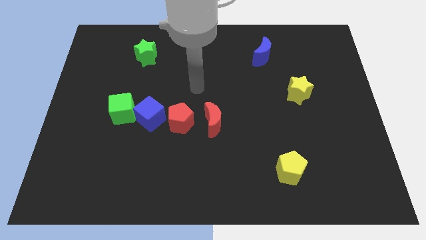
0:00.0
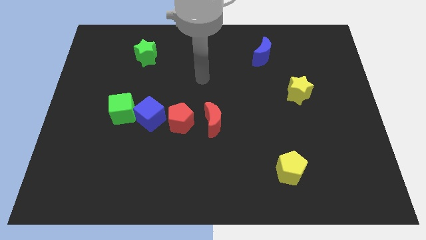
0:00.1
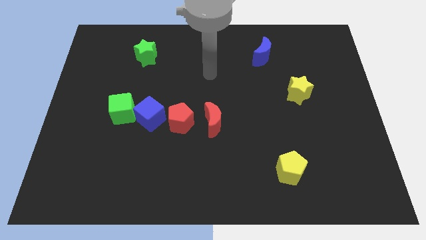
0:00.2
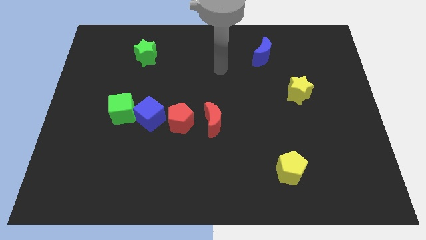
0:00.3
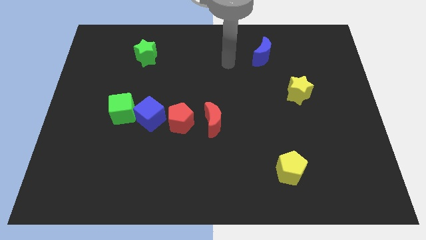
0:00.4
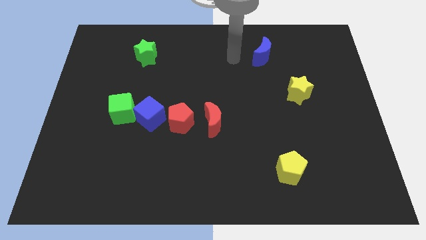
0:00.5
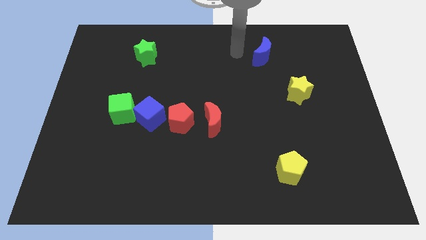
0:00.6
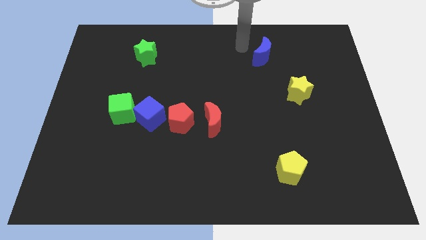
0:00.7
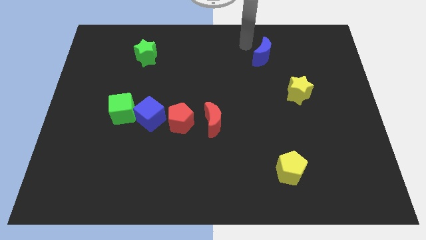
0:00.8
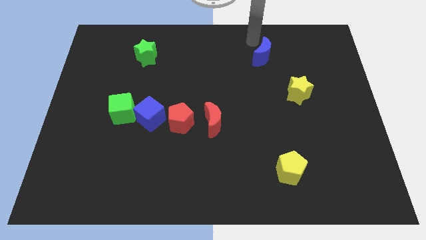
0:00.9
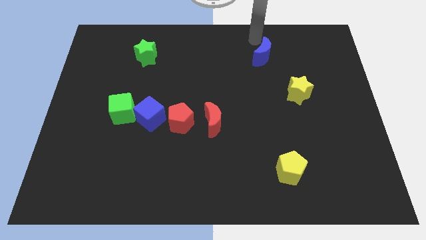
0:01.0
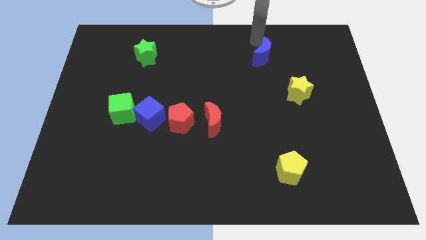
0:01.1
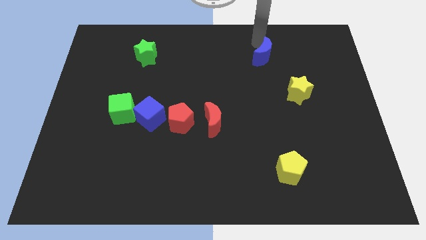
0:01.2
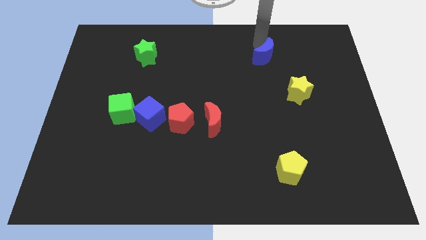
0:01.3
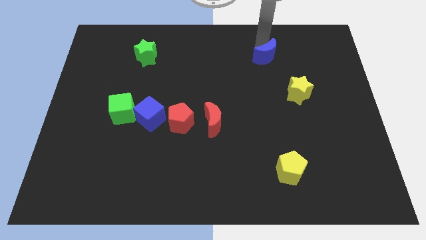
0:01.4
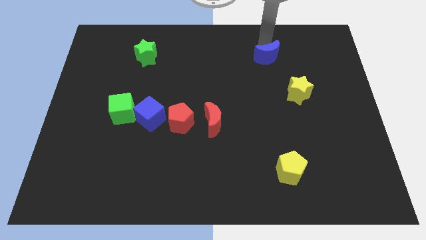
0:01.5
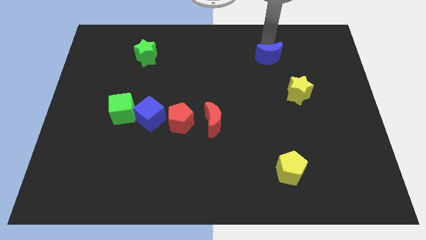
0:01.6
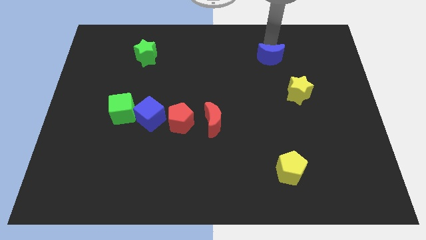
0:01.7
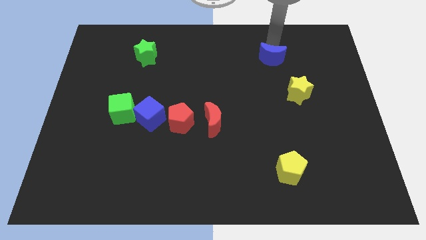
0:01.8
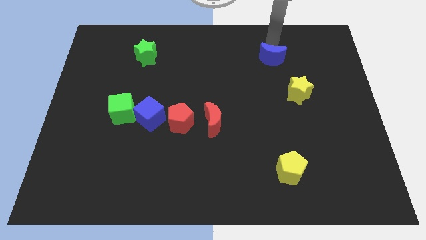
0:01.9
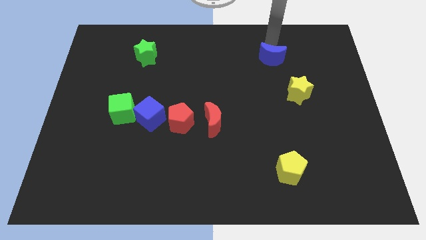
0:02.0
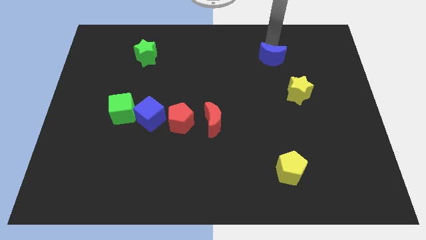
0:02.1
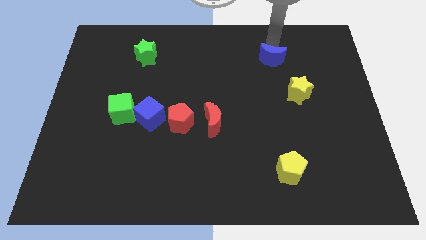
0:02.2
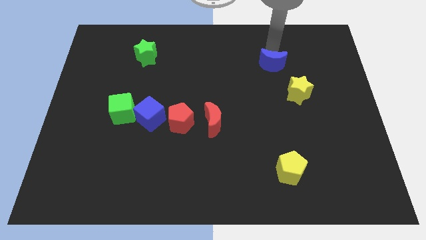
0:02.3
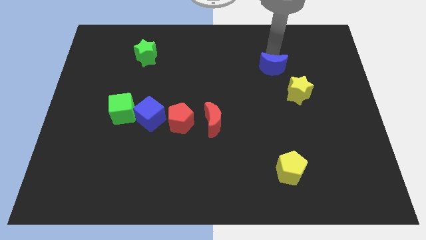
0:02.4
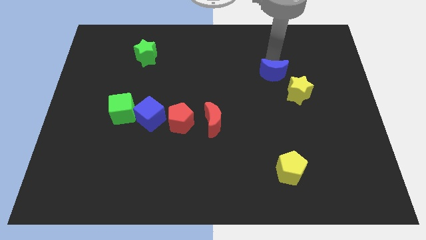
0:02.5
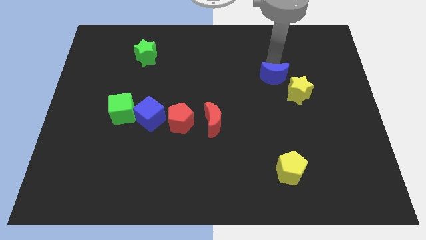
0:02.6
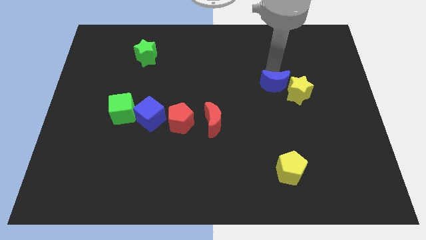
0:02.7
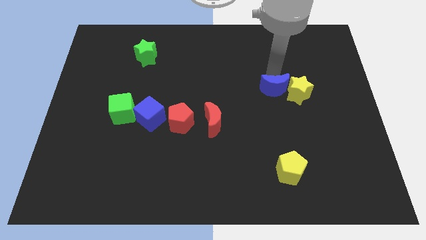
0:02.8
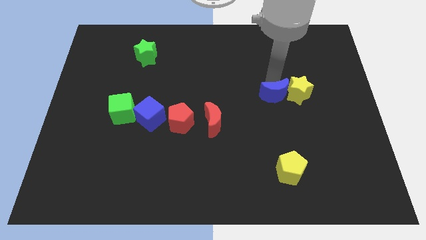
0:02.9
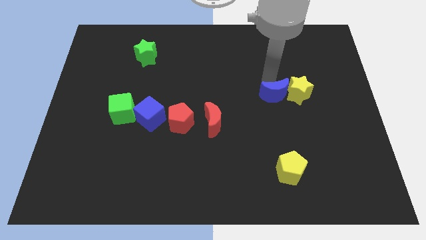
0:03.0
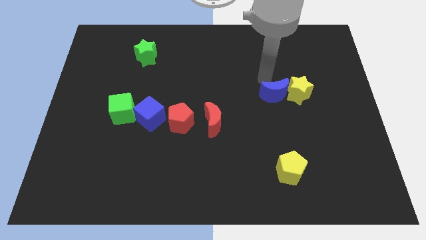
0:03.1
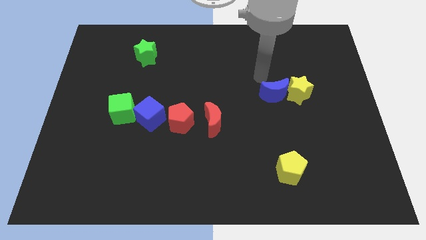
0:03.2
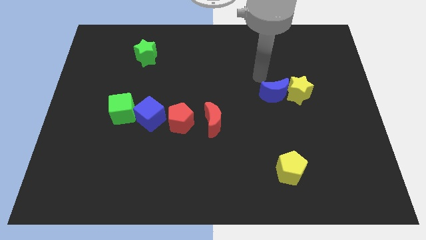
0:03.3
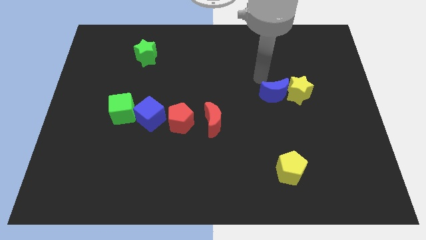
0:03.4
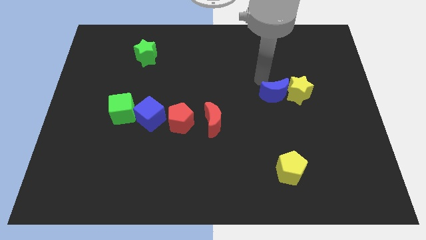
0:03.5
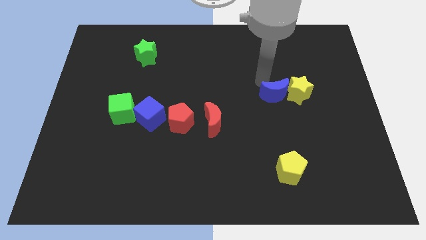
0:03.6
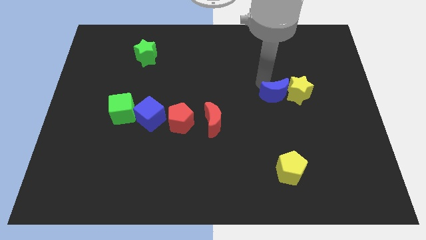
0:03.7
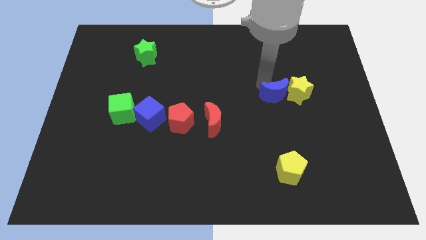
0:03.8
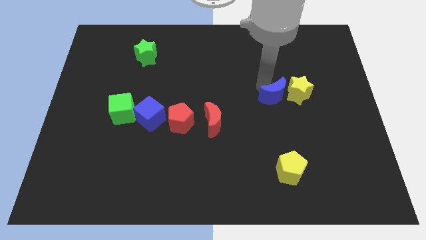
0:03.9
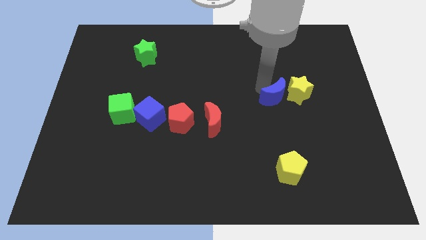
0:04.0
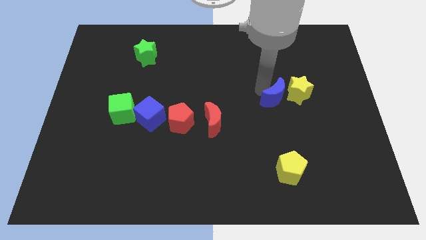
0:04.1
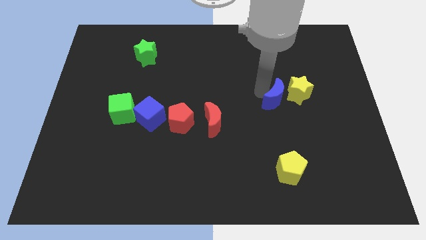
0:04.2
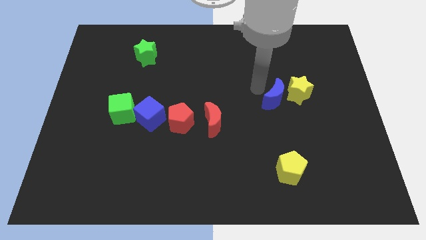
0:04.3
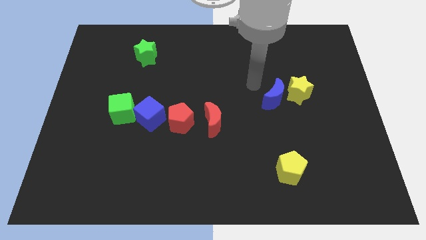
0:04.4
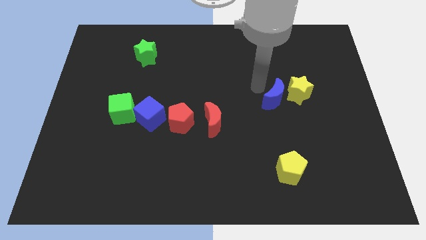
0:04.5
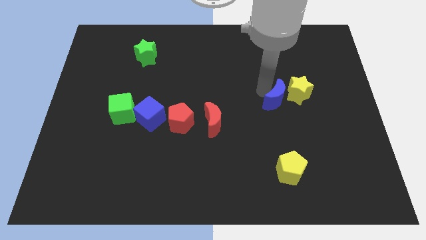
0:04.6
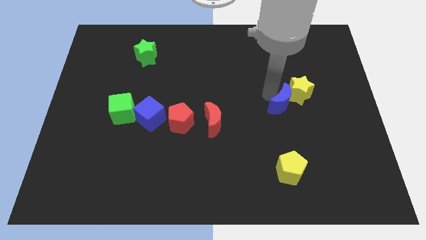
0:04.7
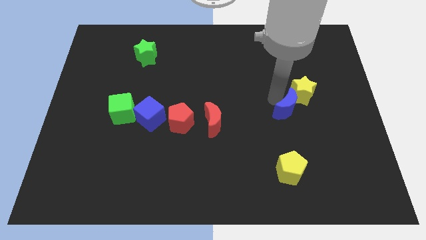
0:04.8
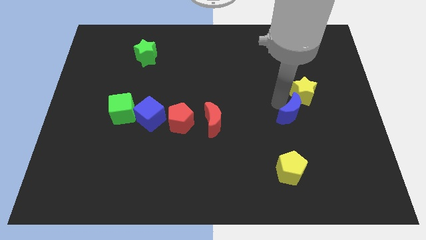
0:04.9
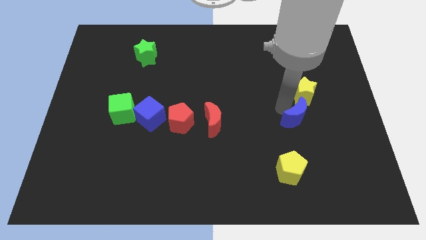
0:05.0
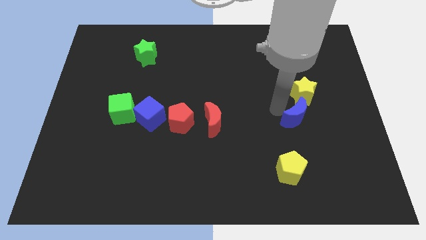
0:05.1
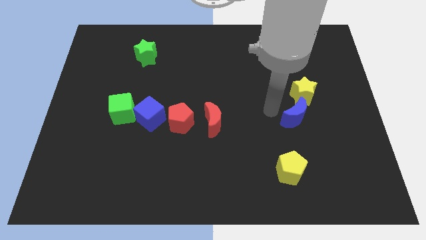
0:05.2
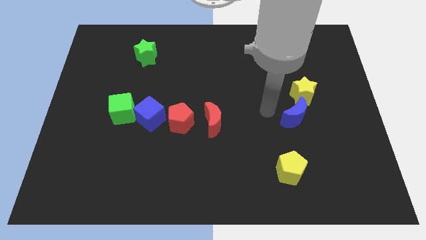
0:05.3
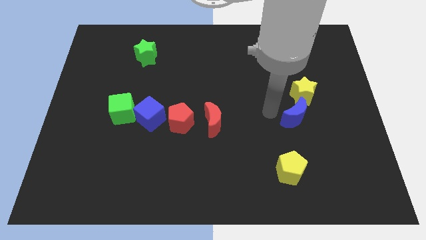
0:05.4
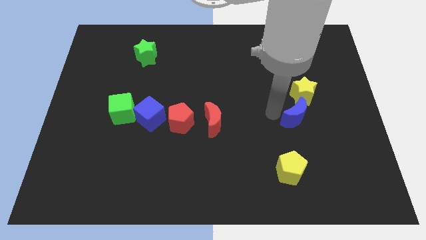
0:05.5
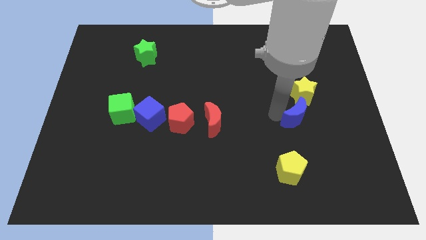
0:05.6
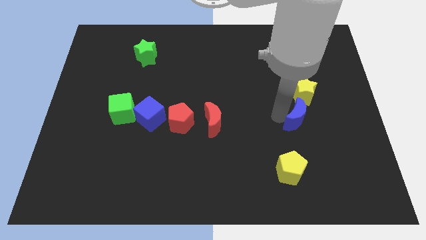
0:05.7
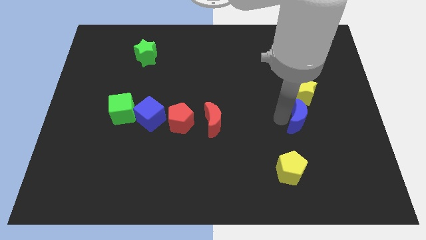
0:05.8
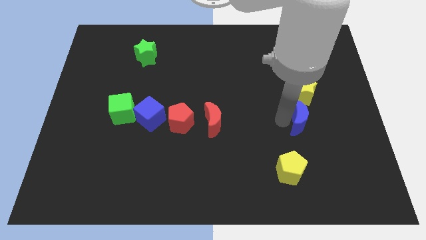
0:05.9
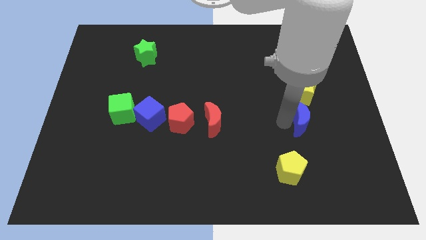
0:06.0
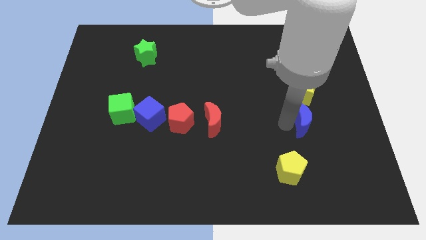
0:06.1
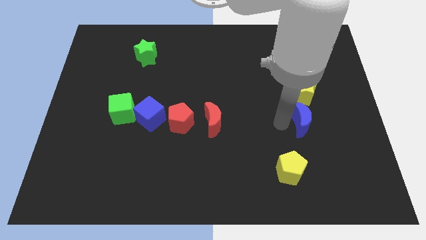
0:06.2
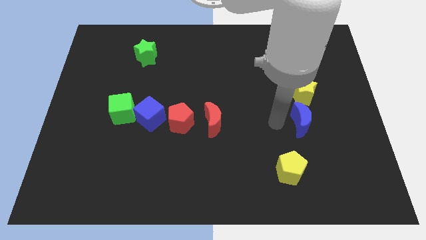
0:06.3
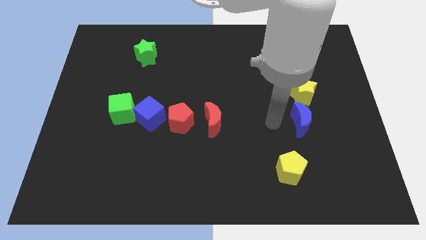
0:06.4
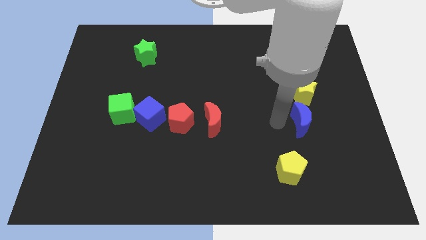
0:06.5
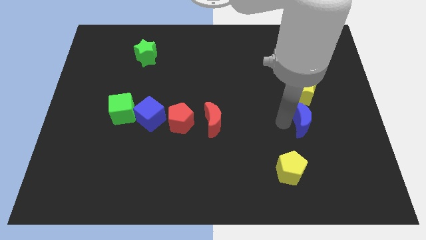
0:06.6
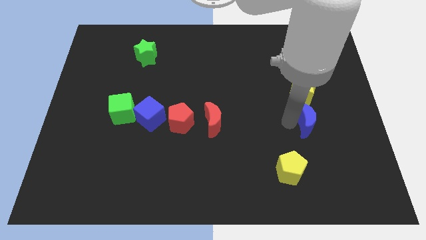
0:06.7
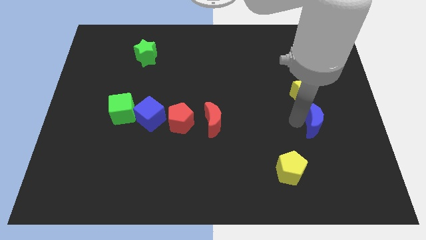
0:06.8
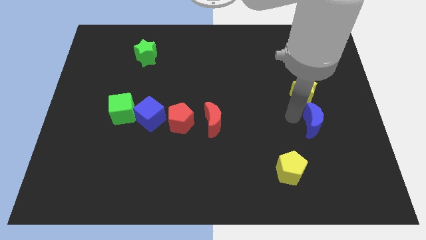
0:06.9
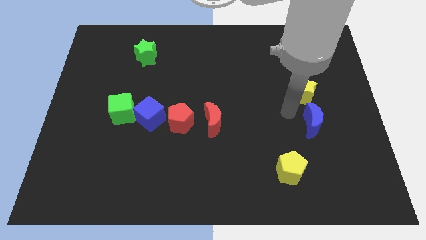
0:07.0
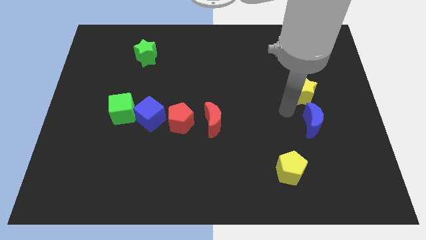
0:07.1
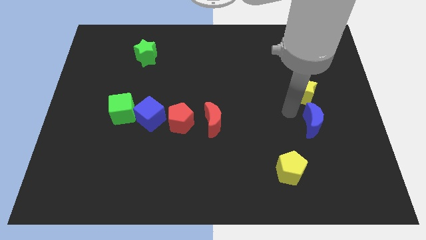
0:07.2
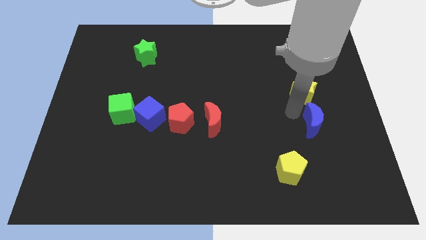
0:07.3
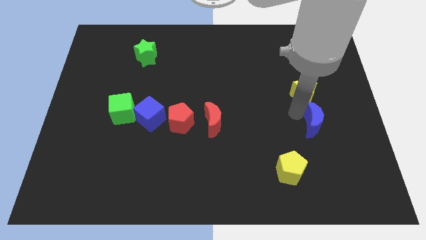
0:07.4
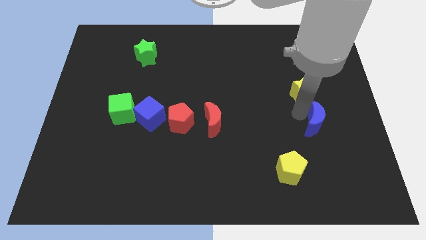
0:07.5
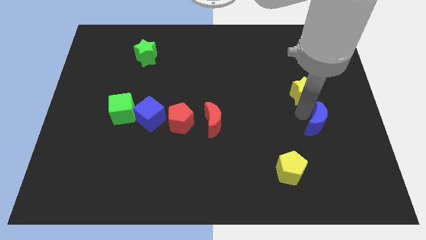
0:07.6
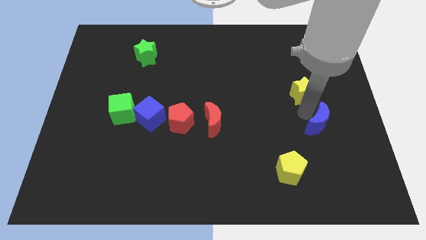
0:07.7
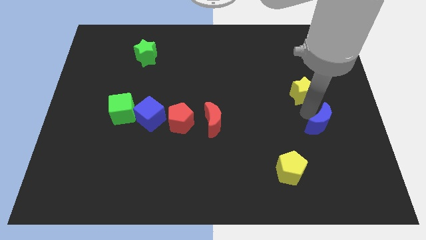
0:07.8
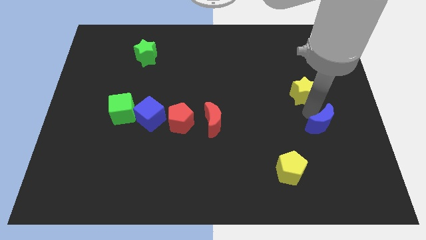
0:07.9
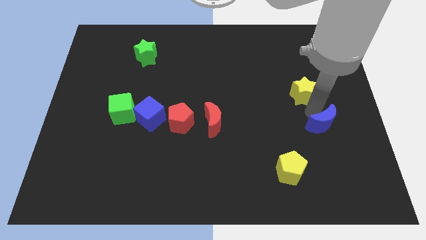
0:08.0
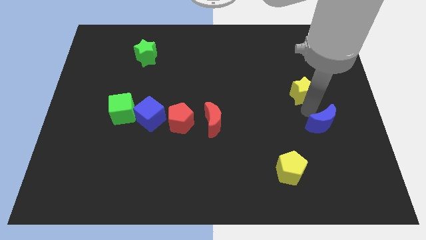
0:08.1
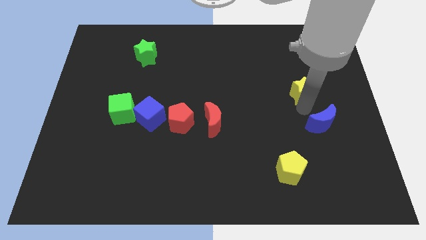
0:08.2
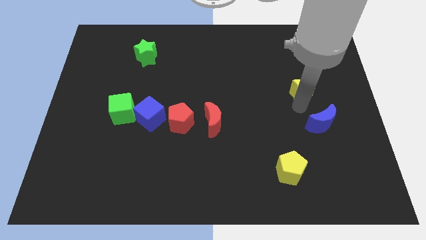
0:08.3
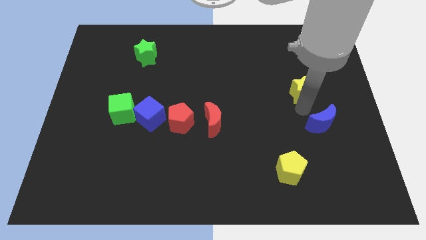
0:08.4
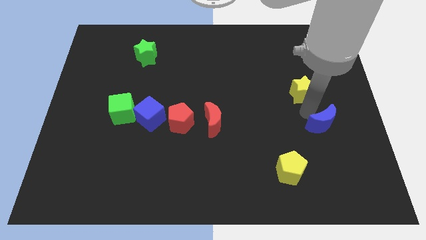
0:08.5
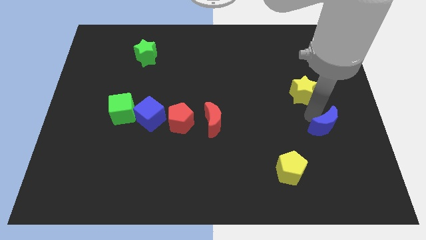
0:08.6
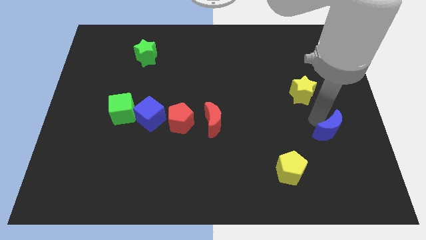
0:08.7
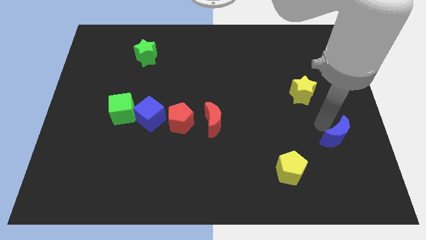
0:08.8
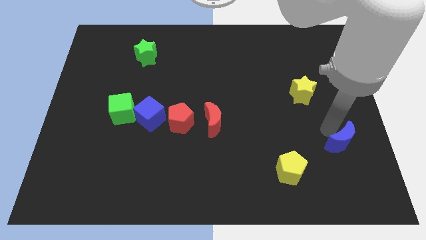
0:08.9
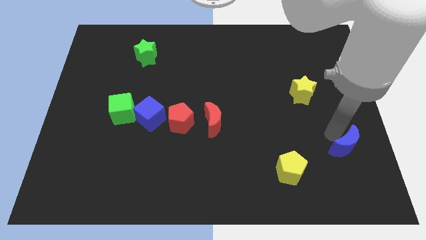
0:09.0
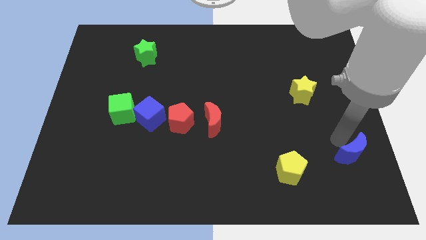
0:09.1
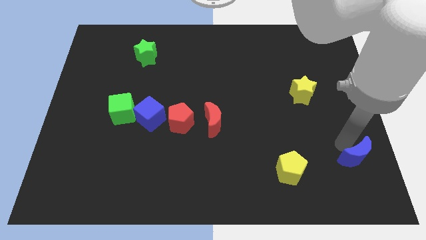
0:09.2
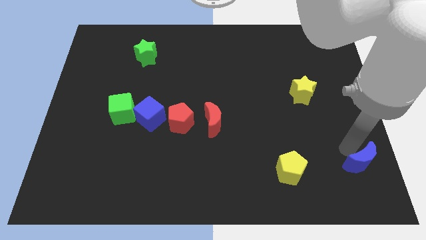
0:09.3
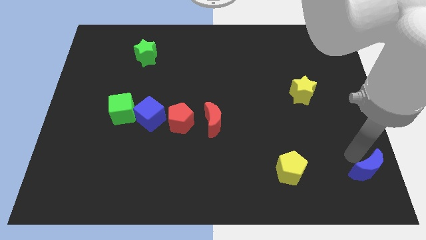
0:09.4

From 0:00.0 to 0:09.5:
move the blue moon to the bottom right of the board
